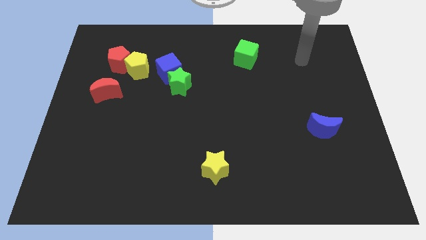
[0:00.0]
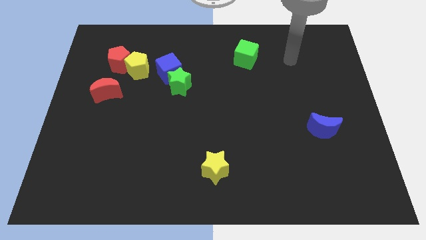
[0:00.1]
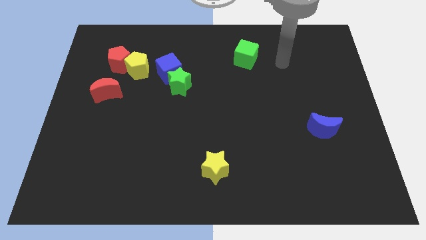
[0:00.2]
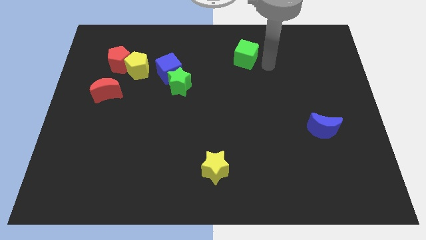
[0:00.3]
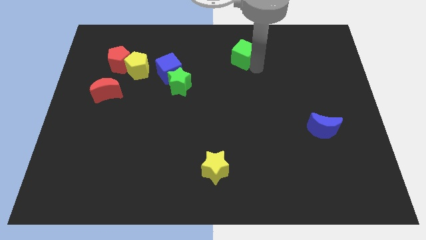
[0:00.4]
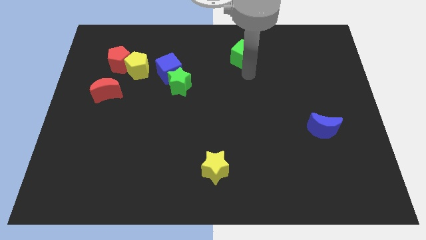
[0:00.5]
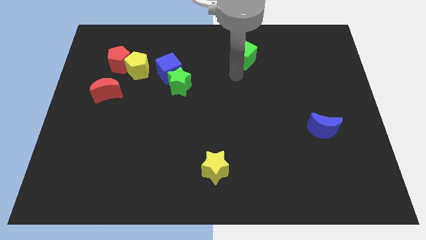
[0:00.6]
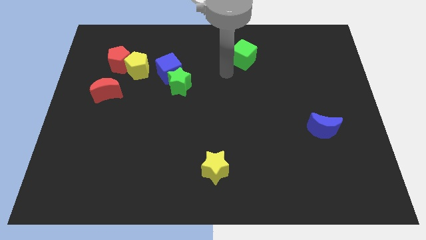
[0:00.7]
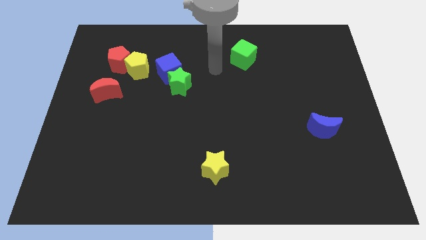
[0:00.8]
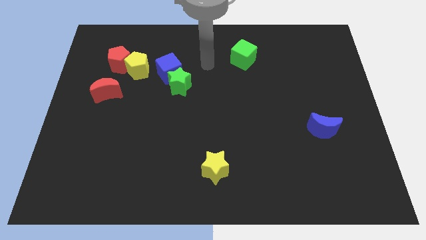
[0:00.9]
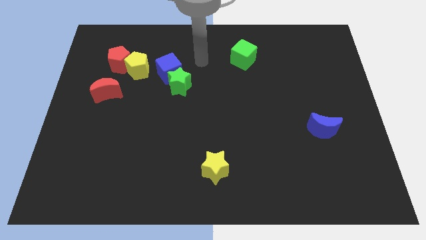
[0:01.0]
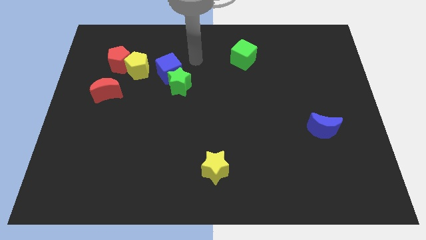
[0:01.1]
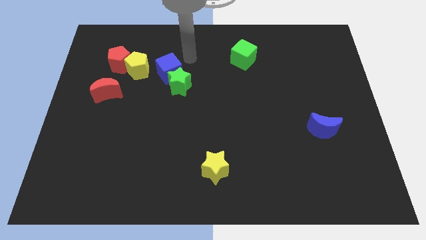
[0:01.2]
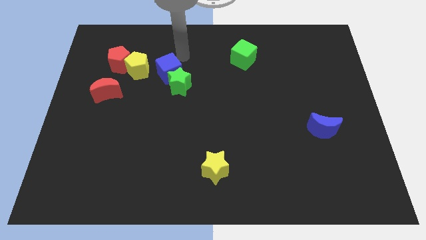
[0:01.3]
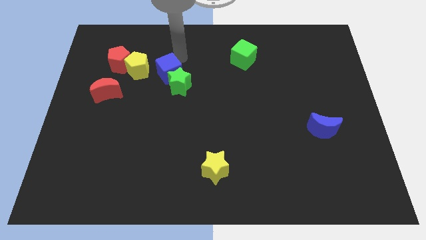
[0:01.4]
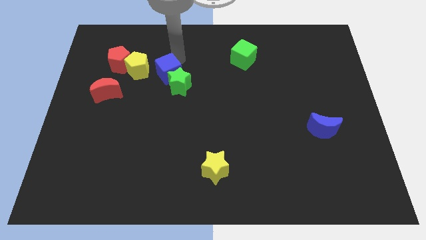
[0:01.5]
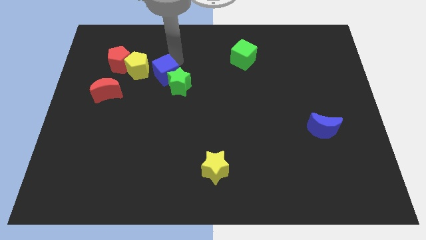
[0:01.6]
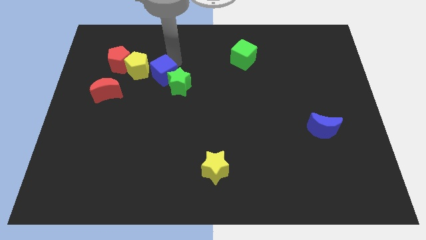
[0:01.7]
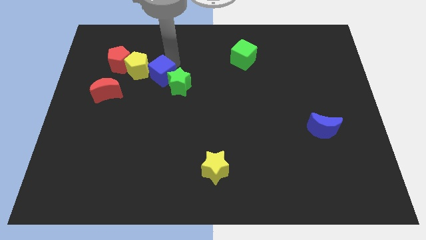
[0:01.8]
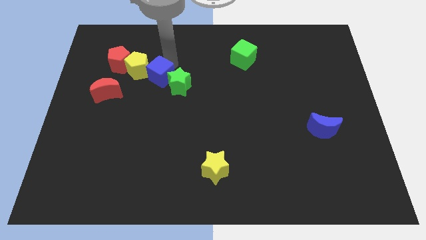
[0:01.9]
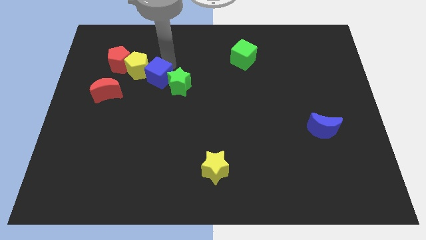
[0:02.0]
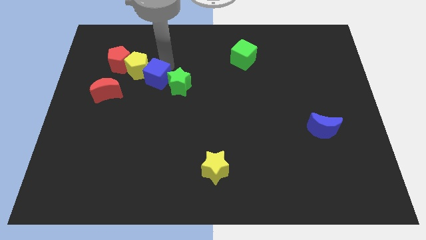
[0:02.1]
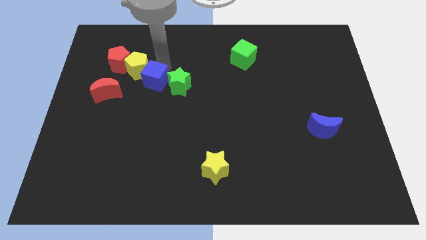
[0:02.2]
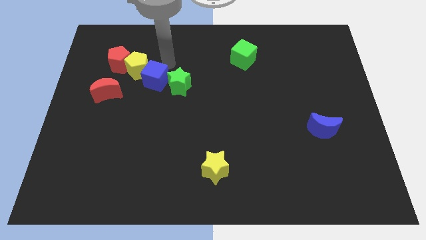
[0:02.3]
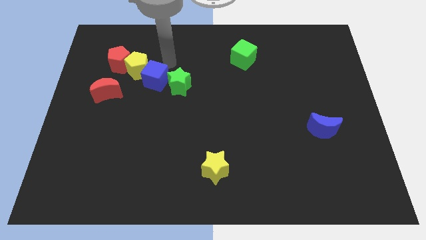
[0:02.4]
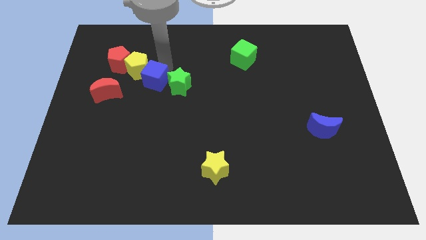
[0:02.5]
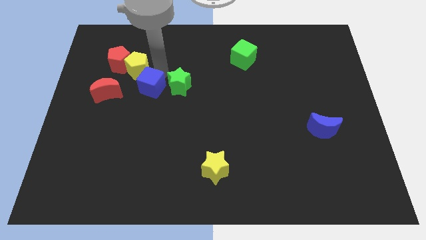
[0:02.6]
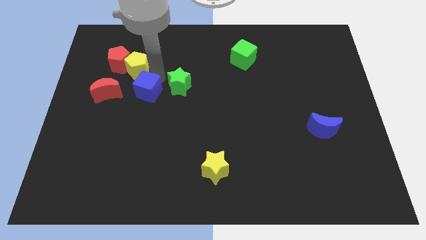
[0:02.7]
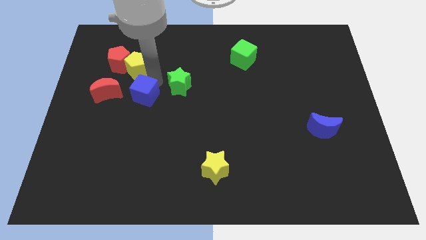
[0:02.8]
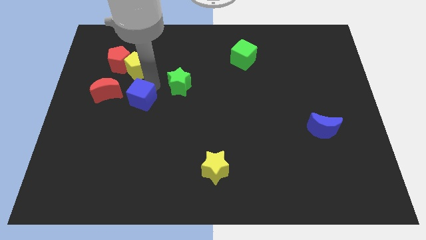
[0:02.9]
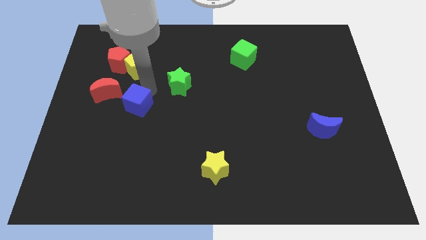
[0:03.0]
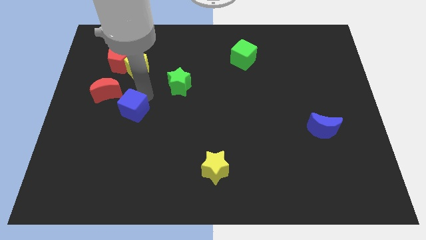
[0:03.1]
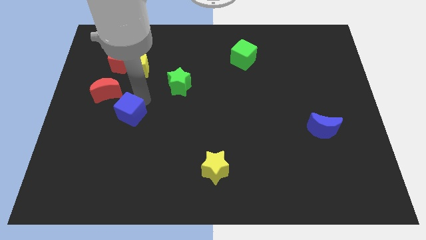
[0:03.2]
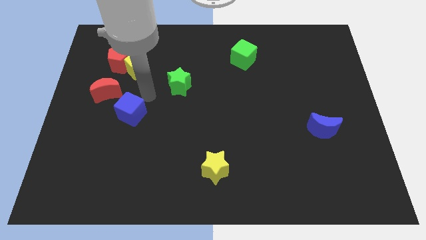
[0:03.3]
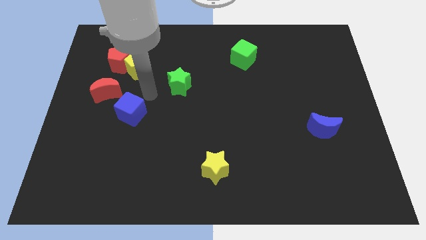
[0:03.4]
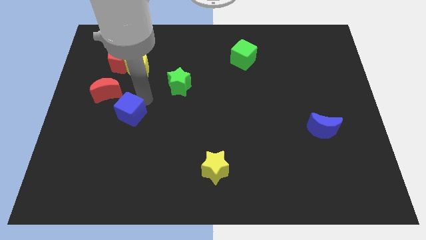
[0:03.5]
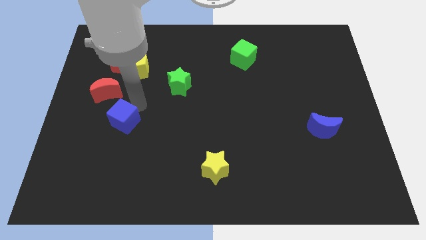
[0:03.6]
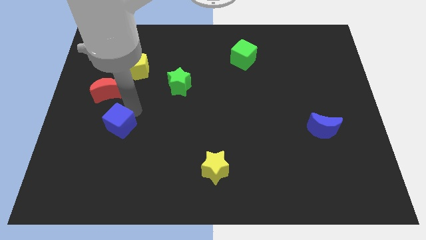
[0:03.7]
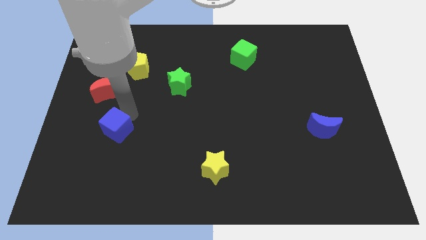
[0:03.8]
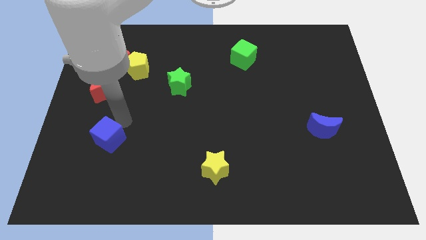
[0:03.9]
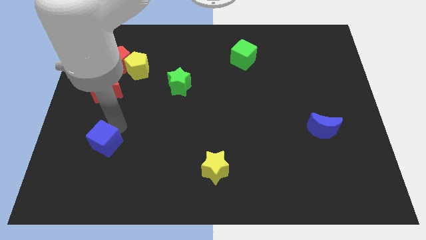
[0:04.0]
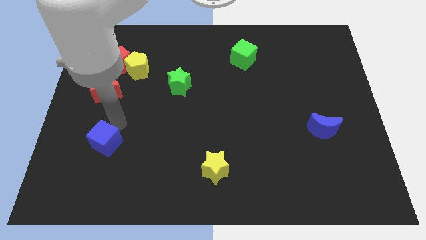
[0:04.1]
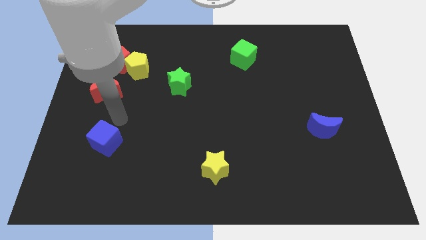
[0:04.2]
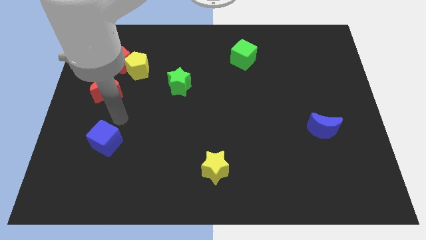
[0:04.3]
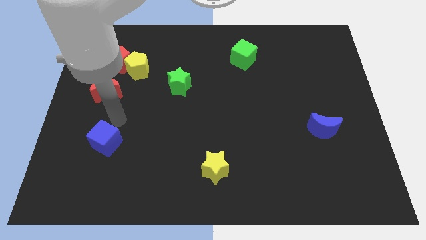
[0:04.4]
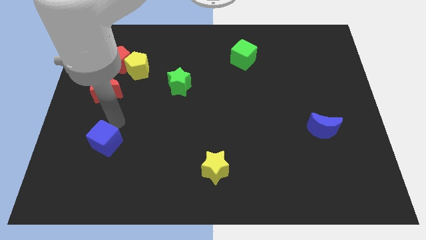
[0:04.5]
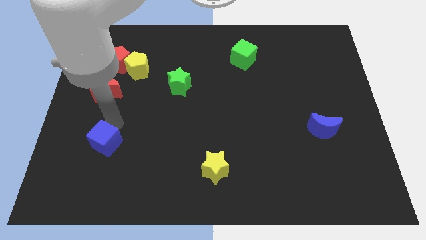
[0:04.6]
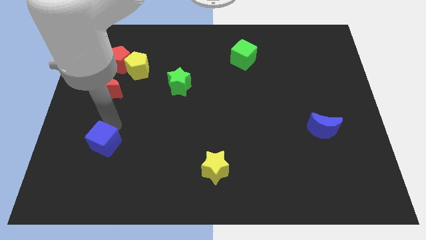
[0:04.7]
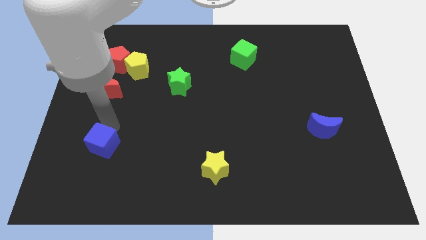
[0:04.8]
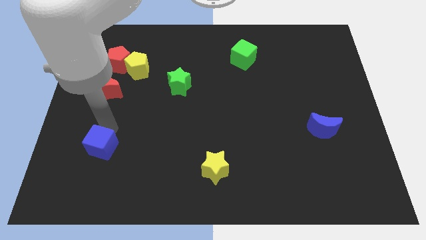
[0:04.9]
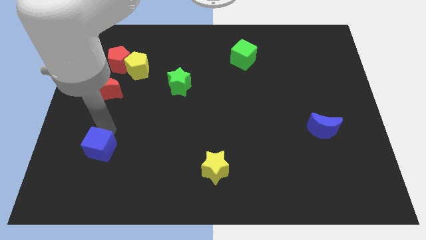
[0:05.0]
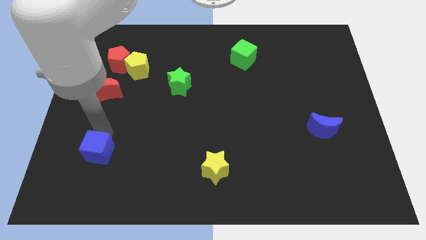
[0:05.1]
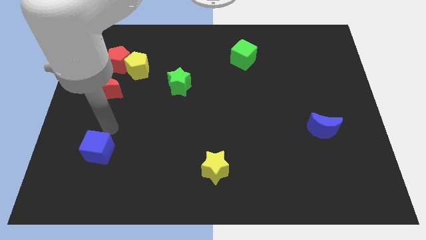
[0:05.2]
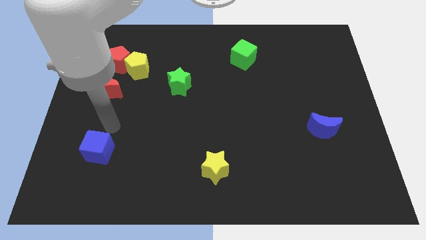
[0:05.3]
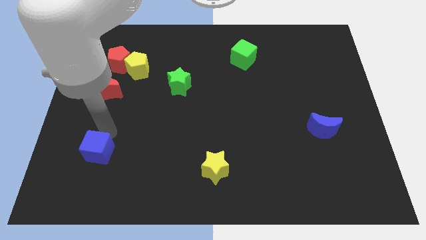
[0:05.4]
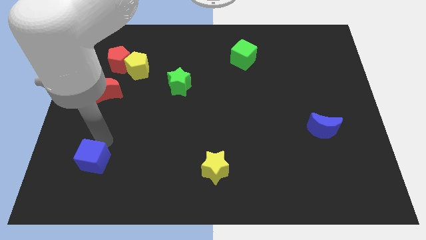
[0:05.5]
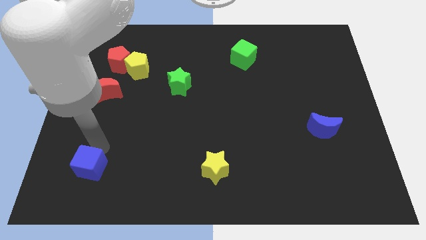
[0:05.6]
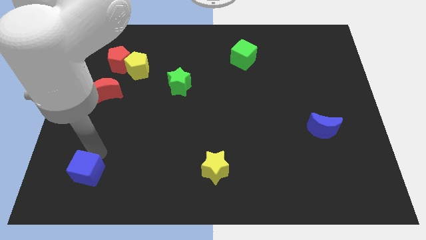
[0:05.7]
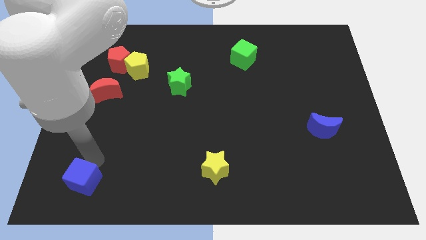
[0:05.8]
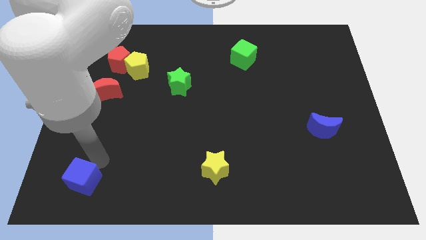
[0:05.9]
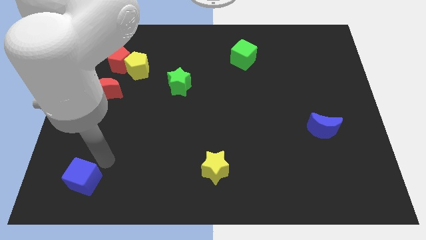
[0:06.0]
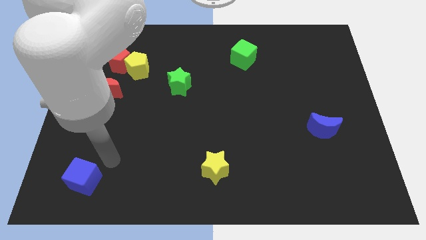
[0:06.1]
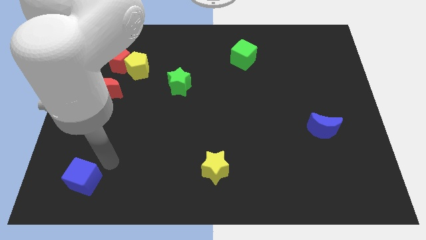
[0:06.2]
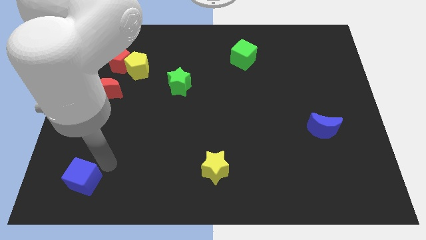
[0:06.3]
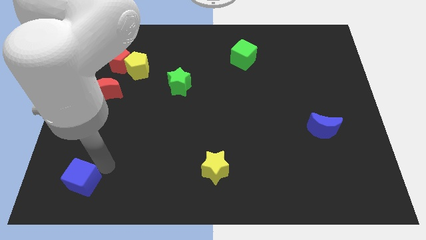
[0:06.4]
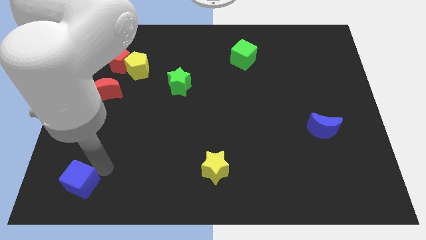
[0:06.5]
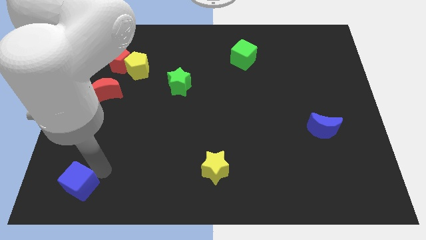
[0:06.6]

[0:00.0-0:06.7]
slide the blue cube to the bottom left corner
